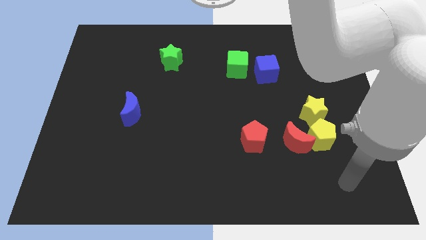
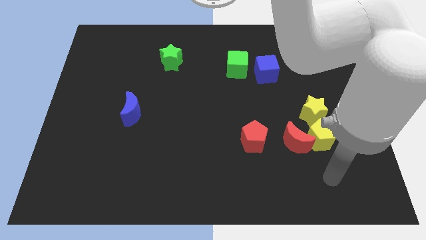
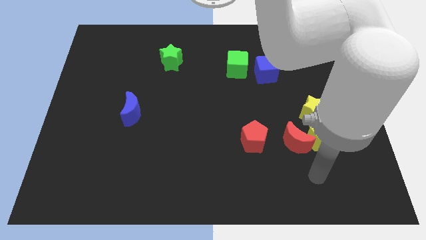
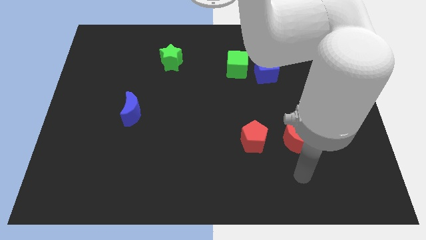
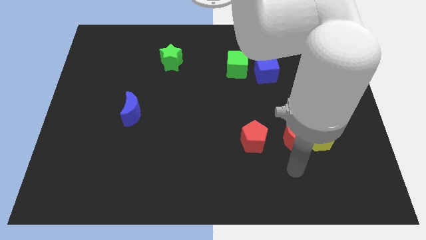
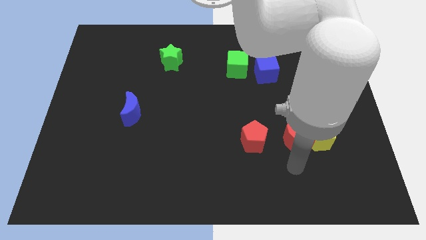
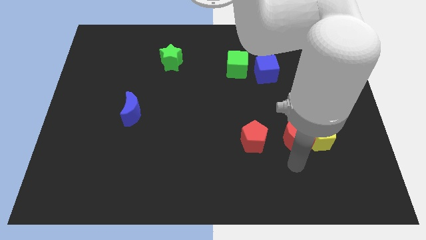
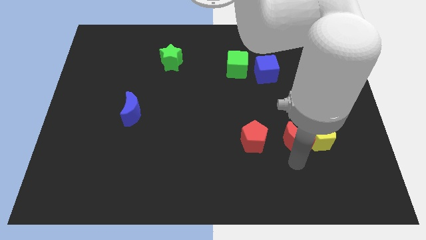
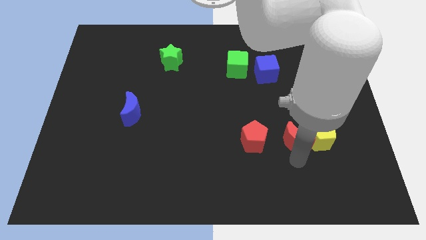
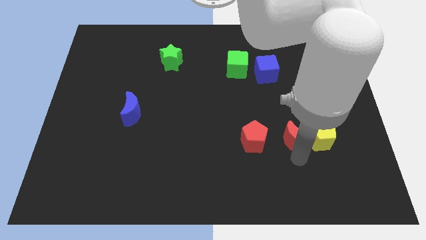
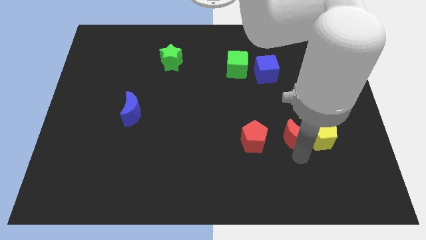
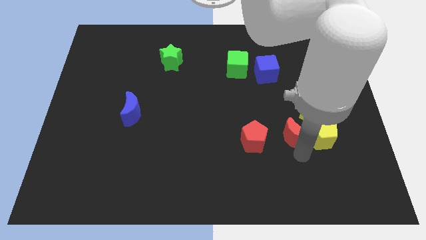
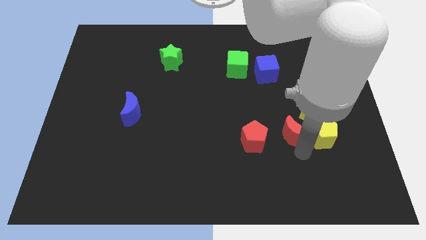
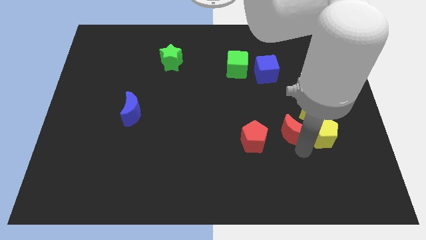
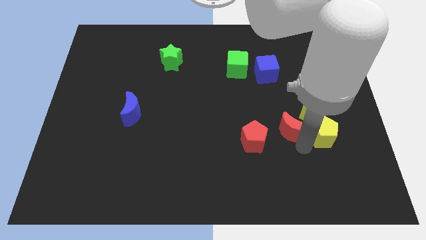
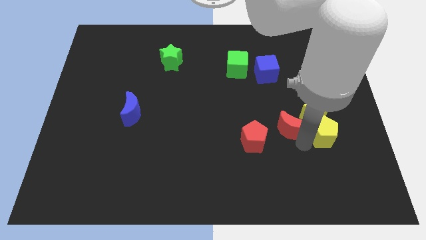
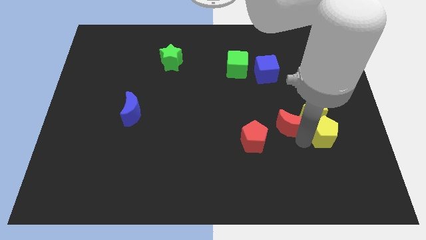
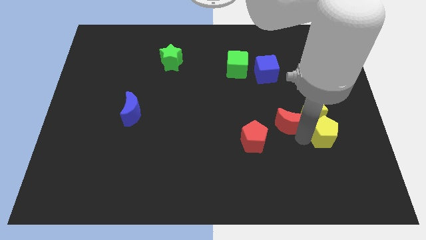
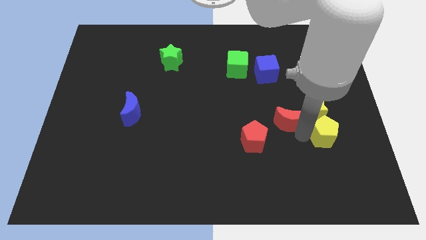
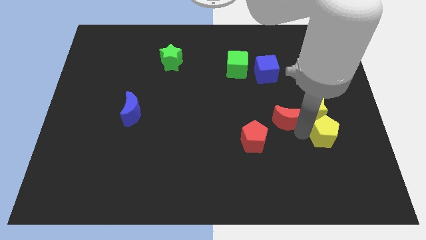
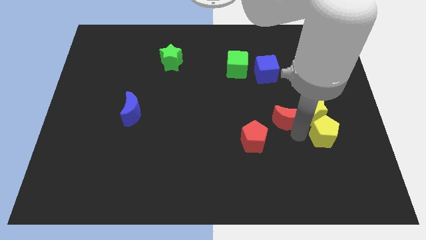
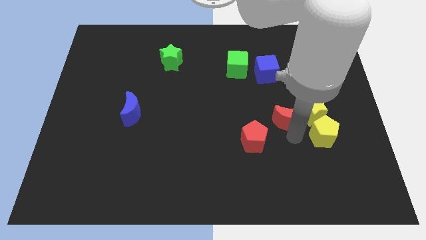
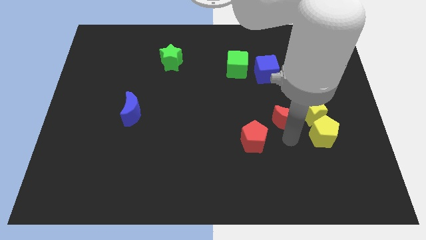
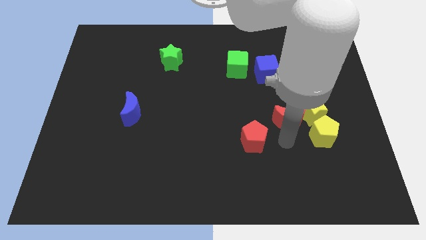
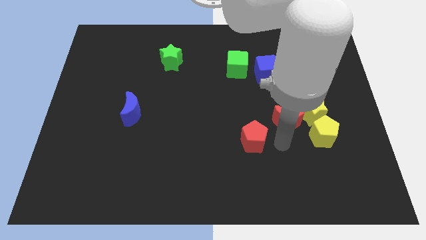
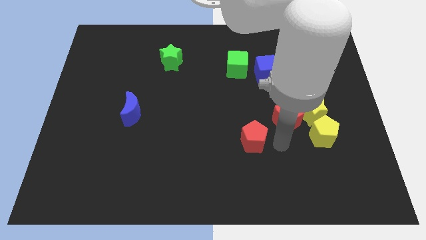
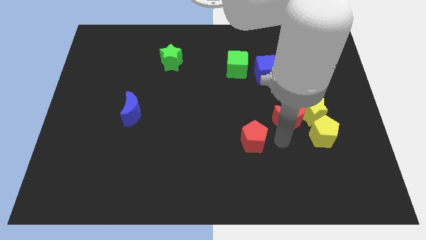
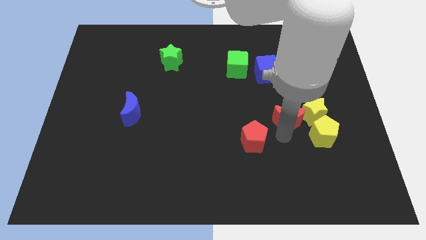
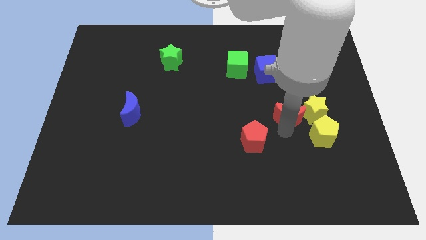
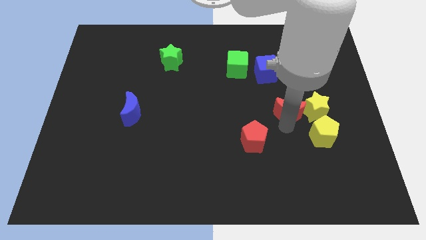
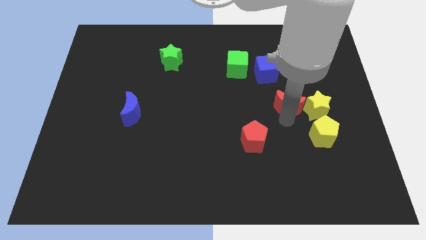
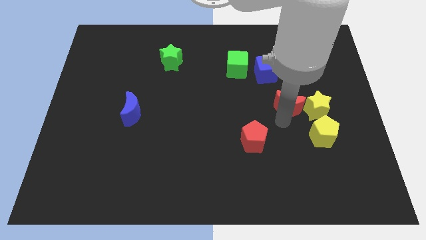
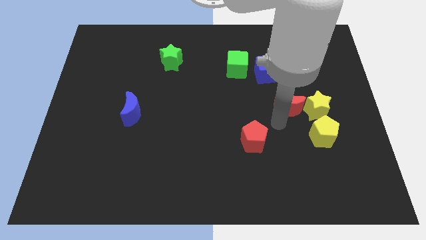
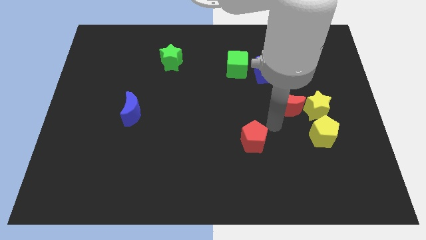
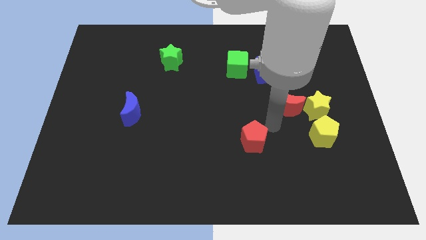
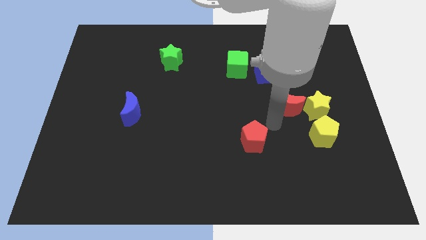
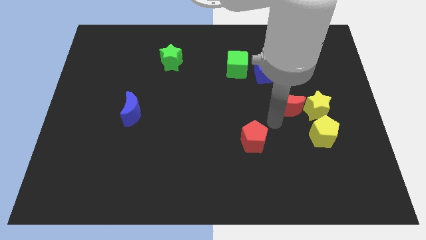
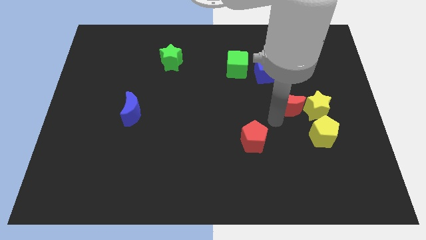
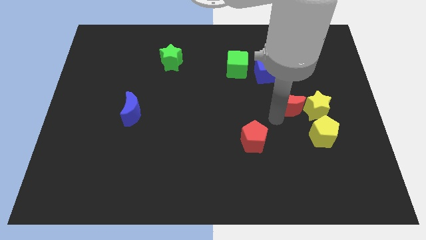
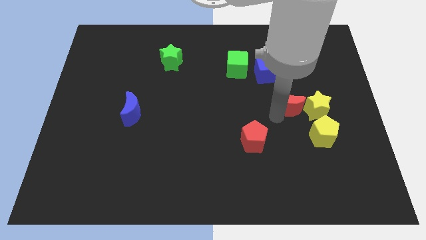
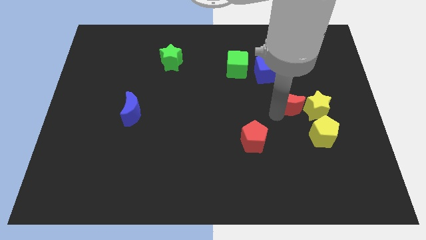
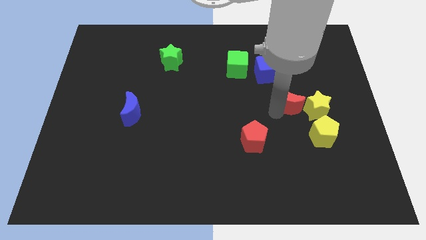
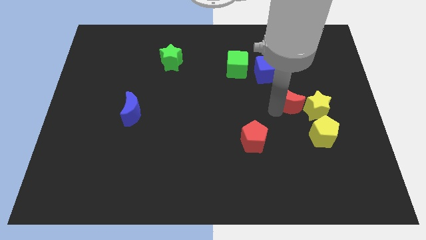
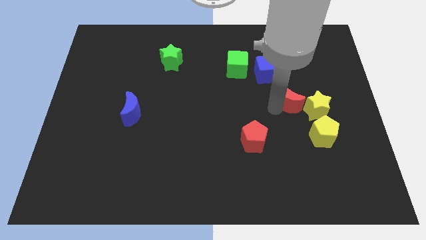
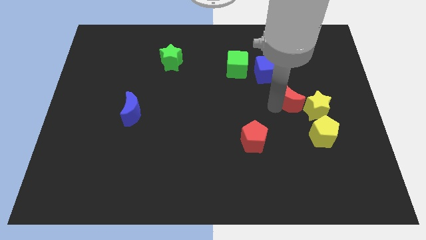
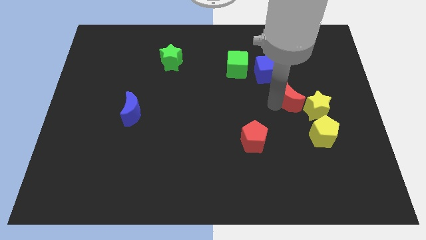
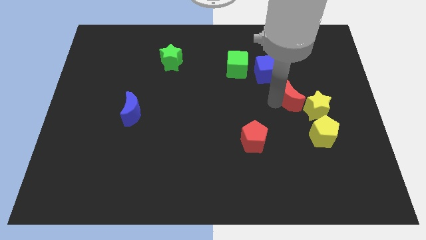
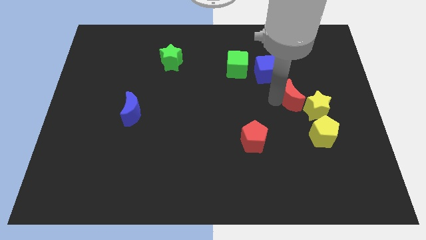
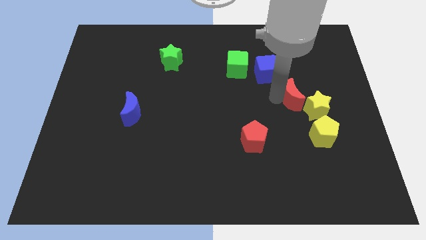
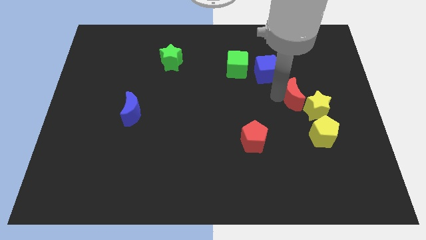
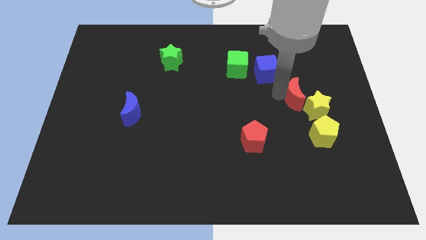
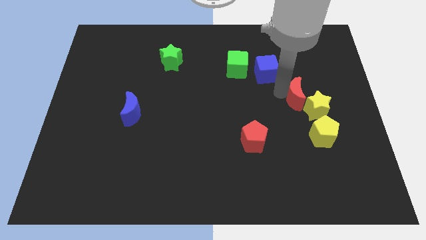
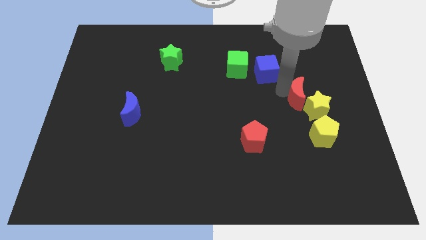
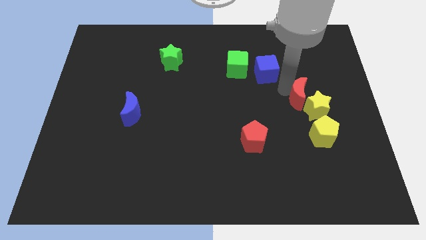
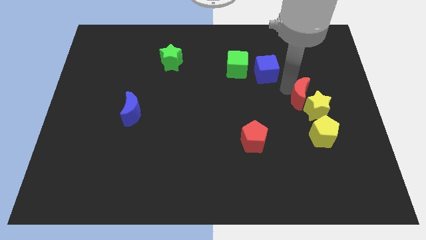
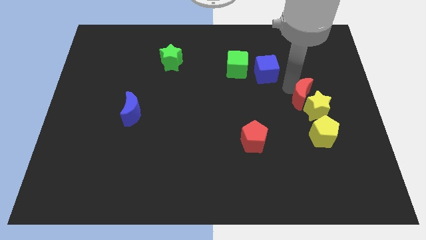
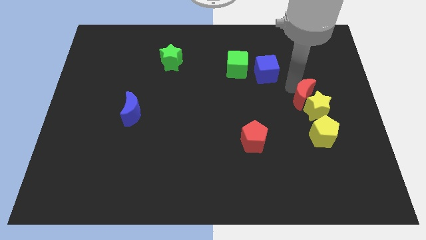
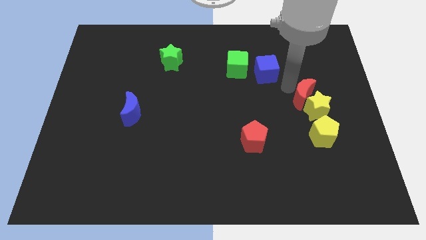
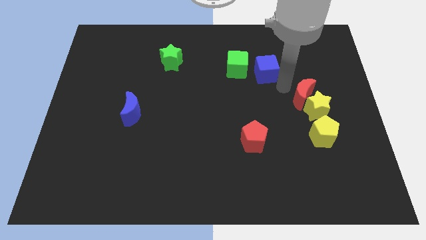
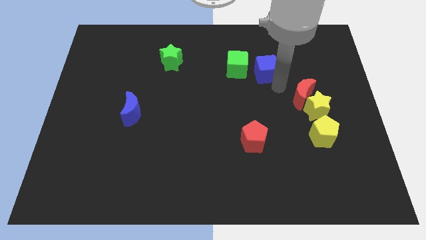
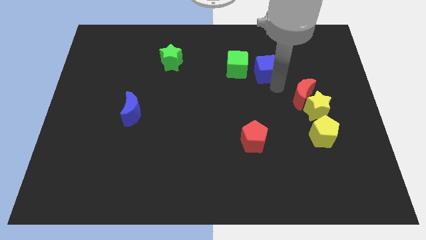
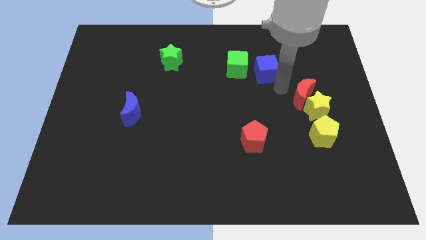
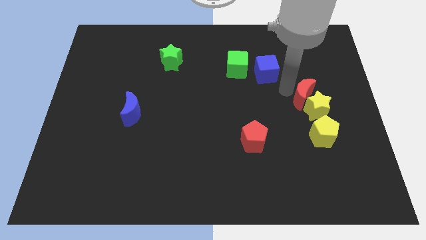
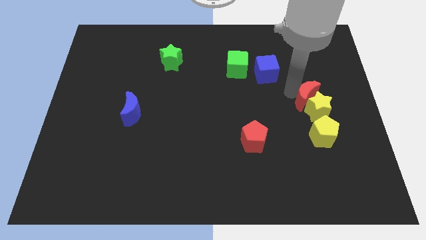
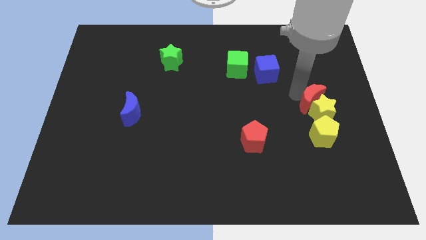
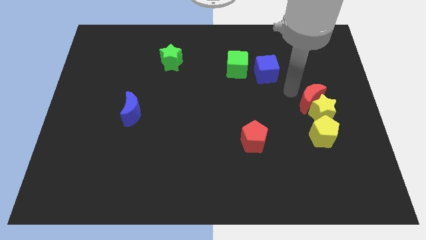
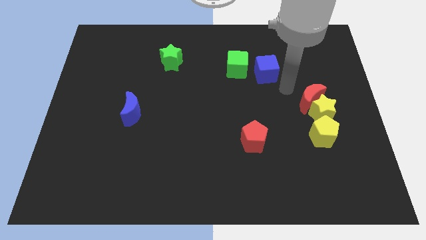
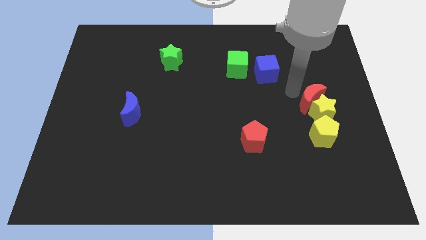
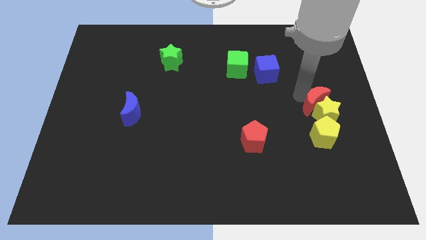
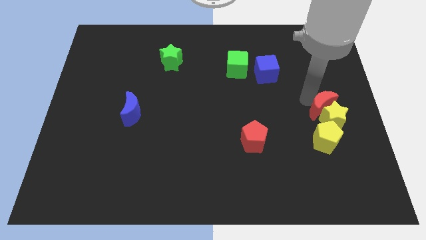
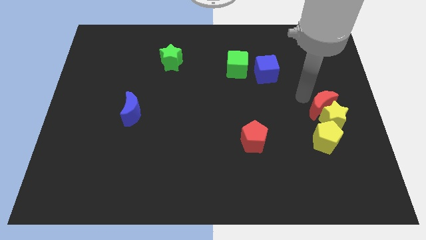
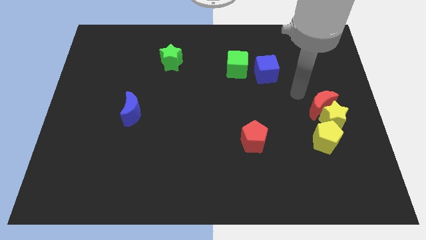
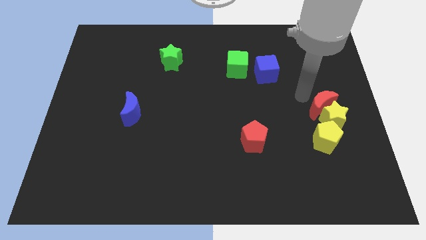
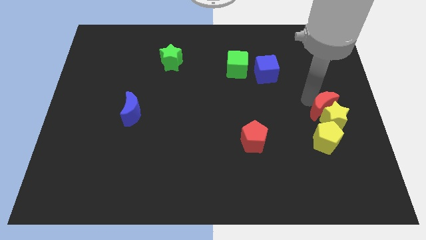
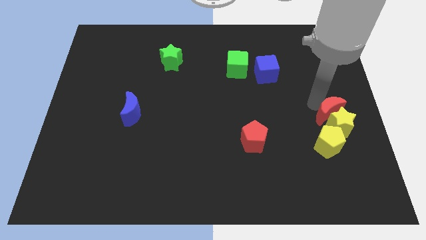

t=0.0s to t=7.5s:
put the red moon diagonally up and to the right of the yellow pentagon

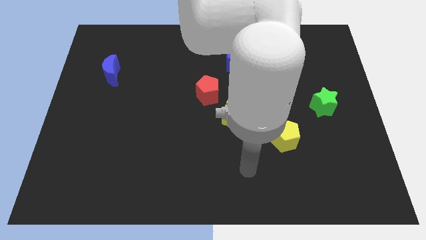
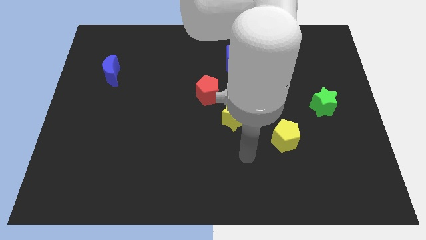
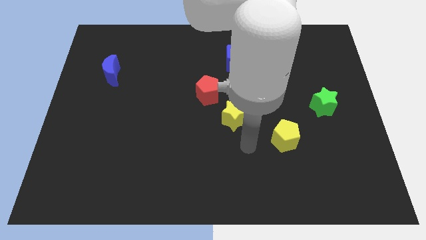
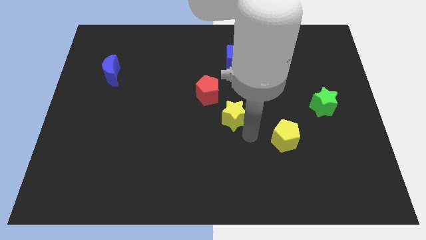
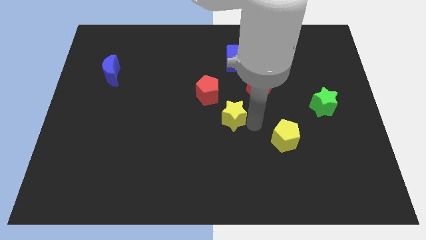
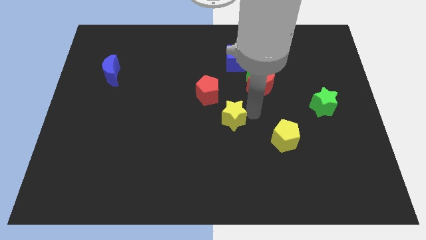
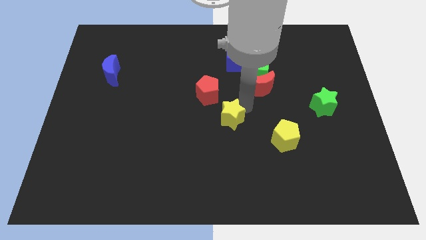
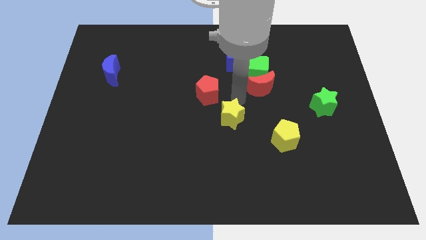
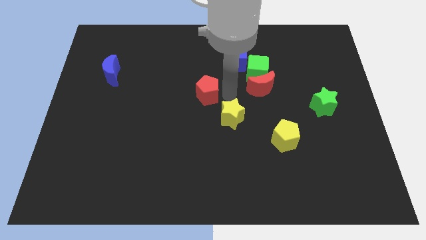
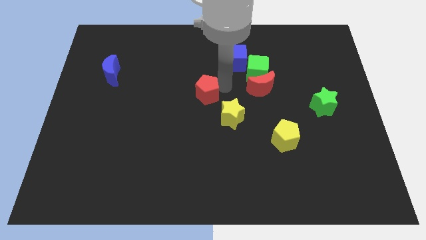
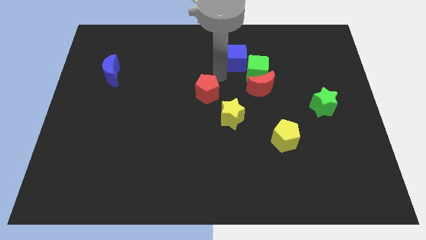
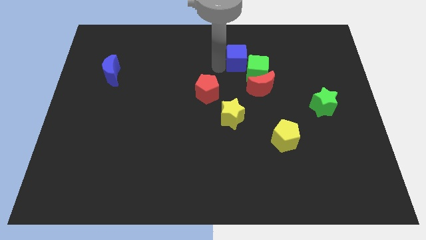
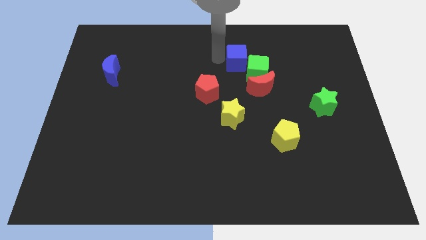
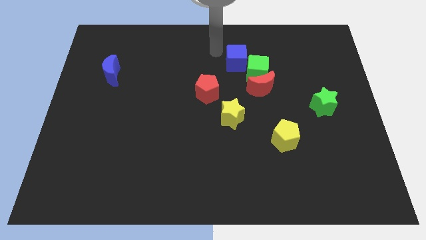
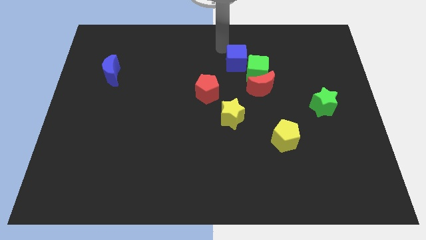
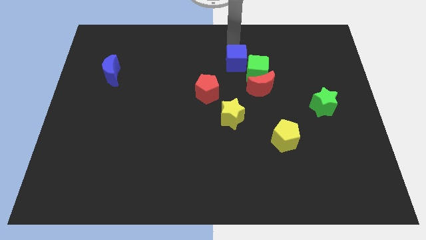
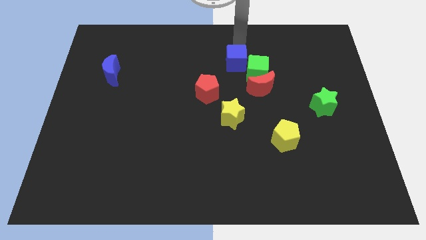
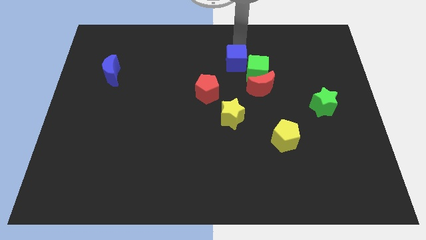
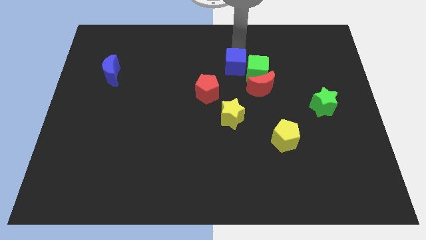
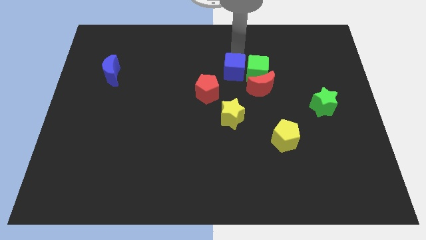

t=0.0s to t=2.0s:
slide the blue cube above the yellow star
